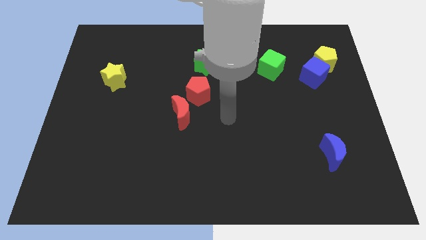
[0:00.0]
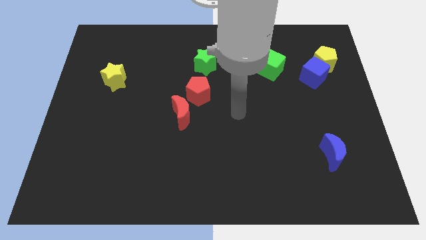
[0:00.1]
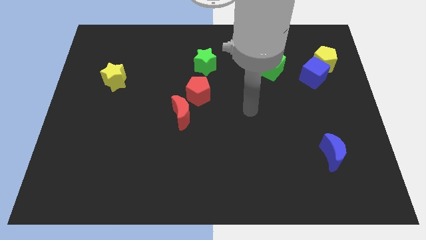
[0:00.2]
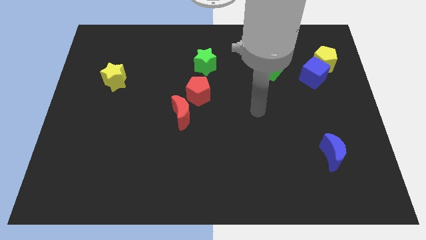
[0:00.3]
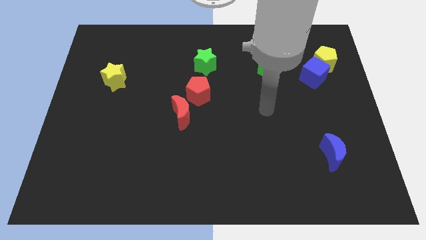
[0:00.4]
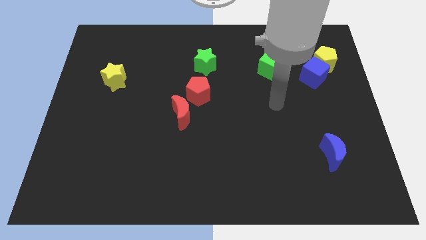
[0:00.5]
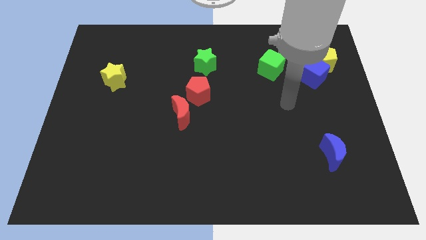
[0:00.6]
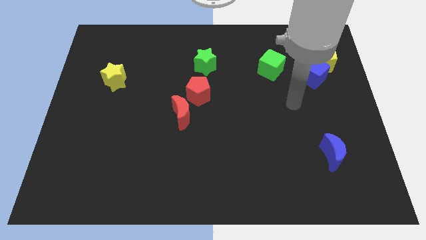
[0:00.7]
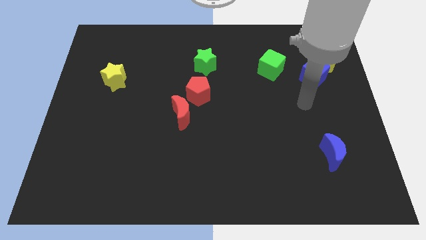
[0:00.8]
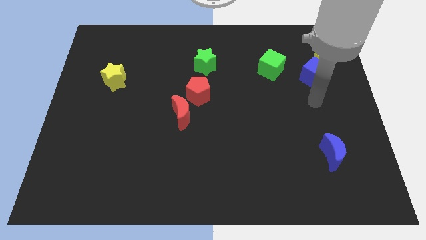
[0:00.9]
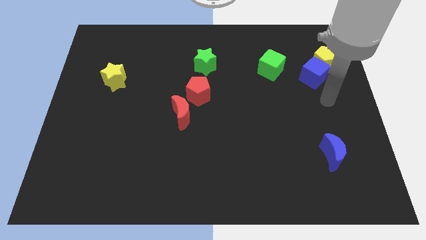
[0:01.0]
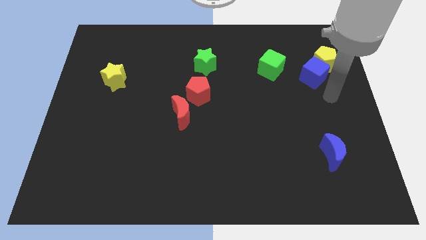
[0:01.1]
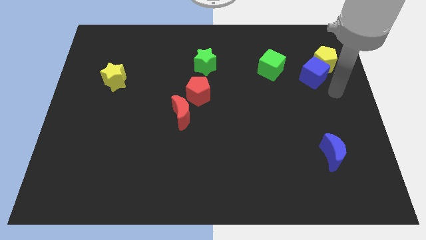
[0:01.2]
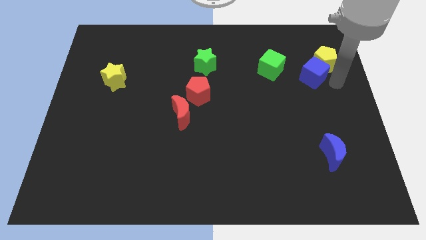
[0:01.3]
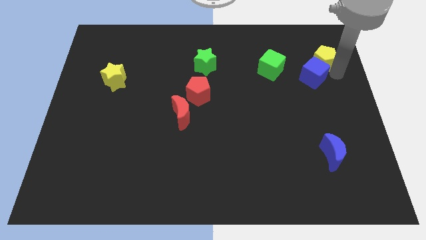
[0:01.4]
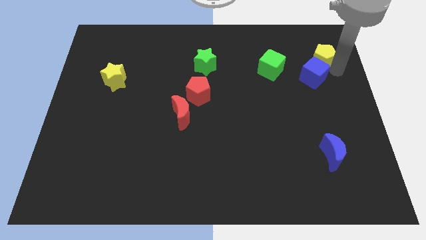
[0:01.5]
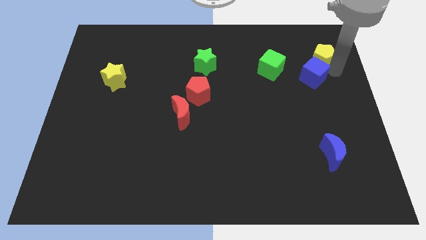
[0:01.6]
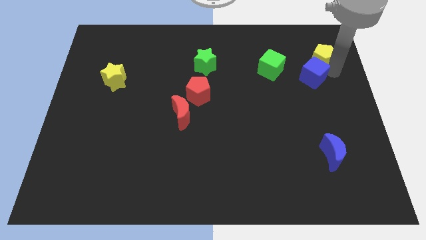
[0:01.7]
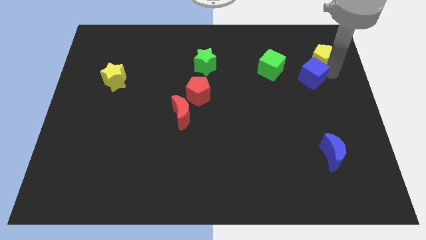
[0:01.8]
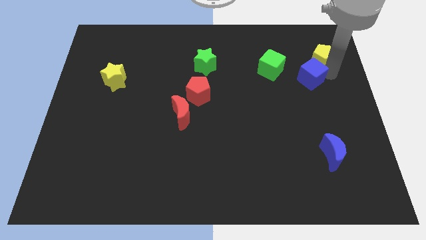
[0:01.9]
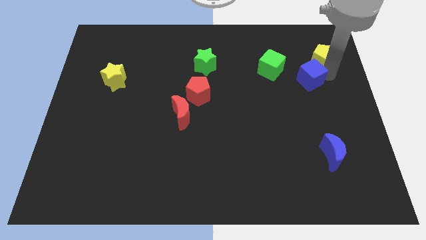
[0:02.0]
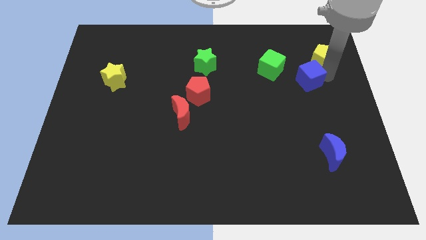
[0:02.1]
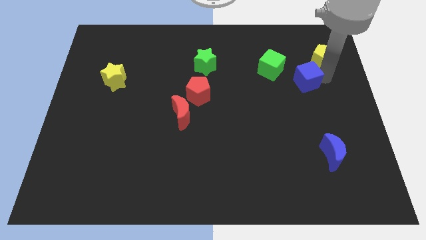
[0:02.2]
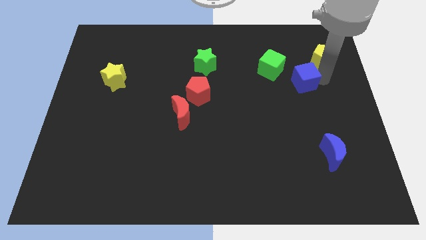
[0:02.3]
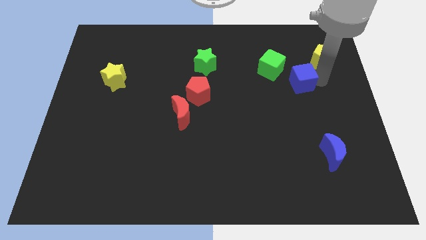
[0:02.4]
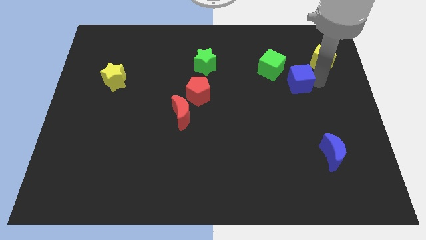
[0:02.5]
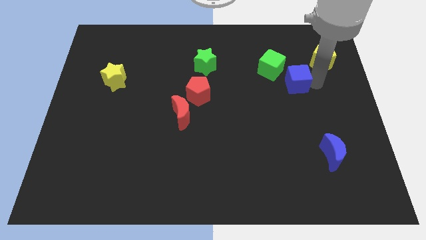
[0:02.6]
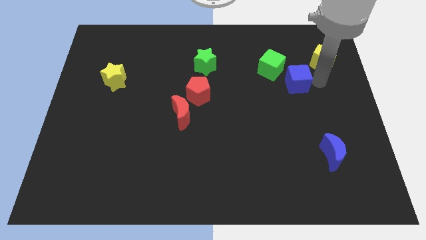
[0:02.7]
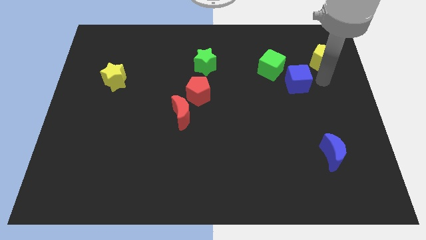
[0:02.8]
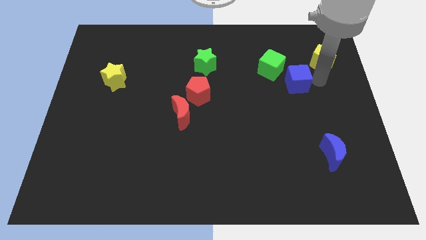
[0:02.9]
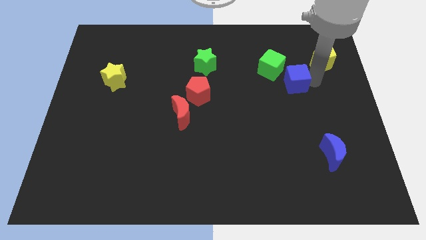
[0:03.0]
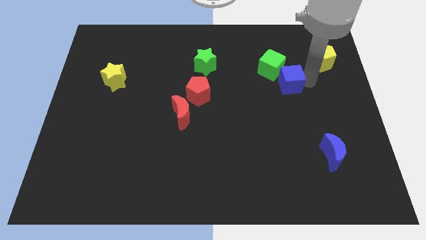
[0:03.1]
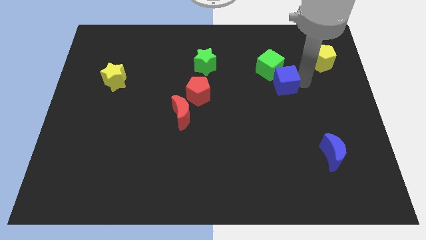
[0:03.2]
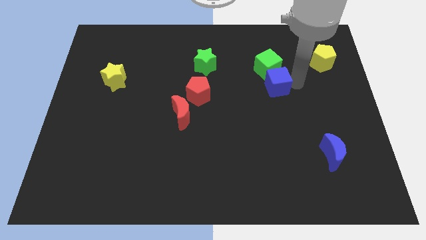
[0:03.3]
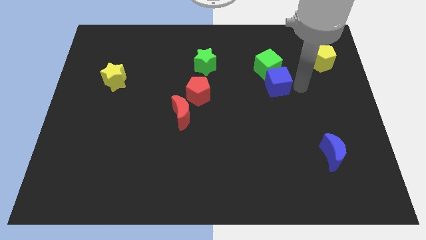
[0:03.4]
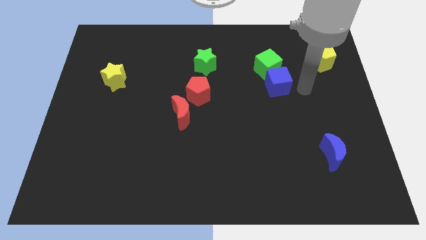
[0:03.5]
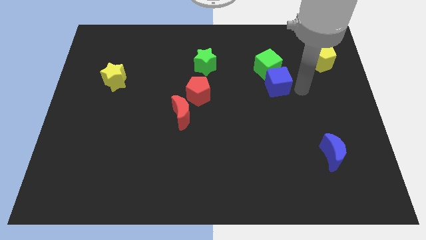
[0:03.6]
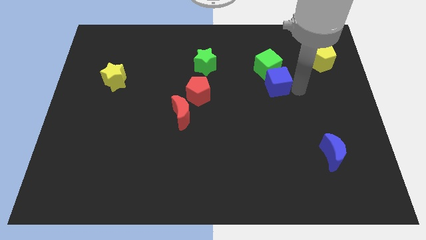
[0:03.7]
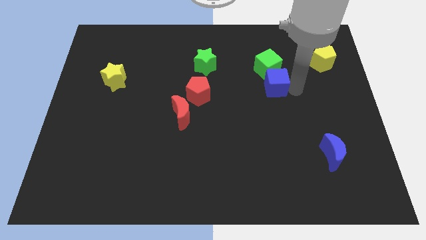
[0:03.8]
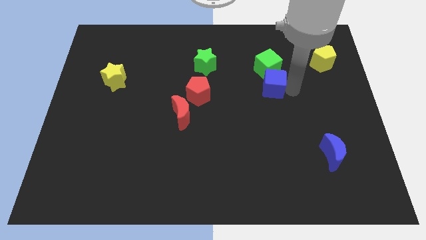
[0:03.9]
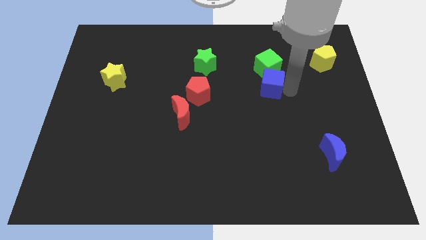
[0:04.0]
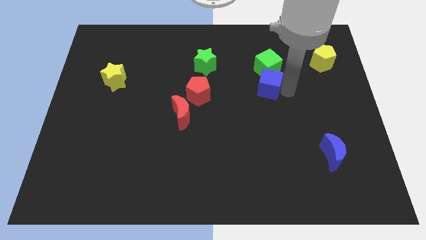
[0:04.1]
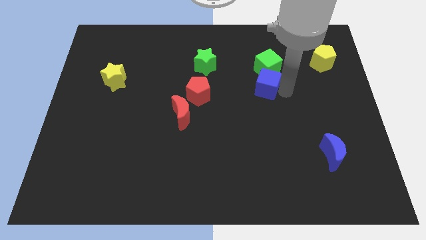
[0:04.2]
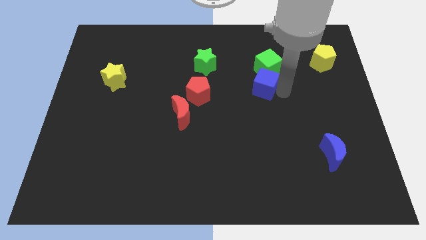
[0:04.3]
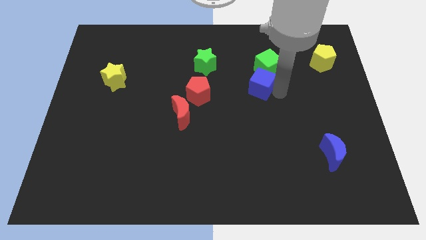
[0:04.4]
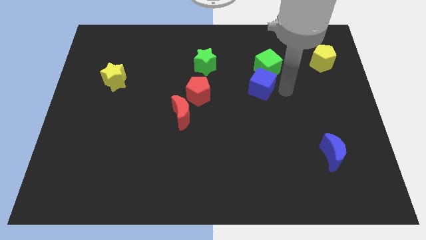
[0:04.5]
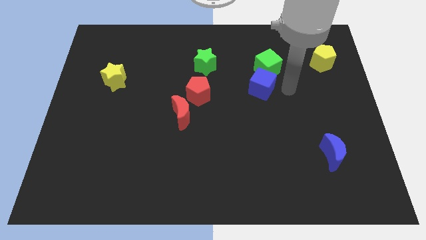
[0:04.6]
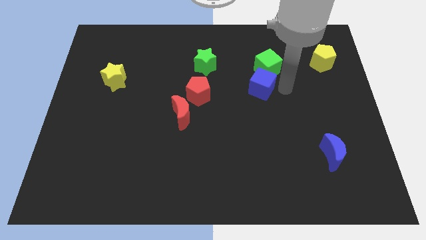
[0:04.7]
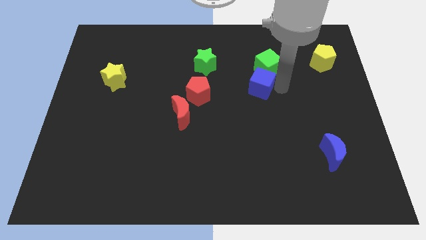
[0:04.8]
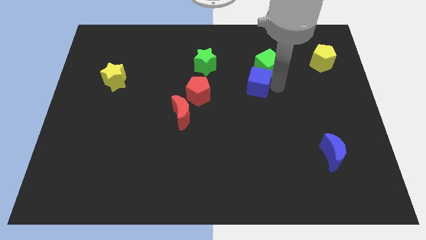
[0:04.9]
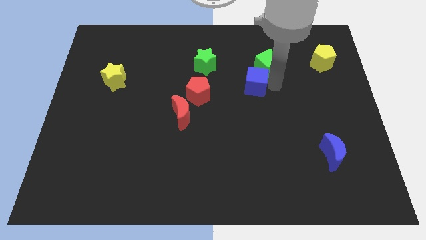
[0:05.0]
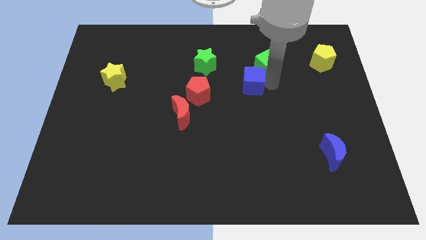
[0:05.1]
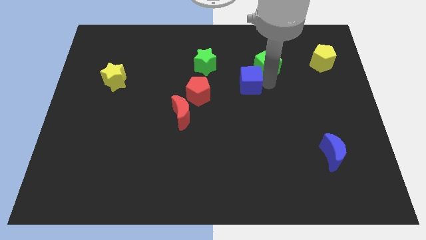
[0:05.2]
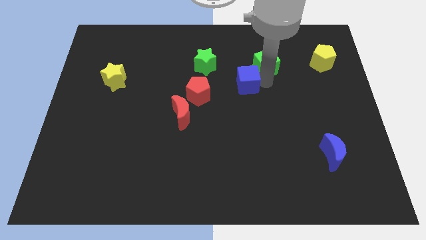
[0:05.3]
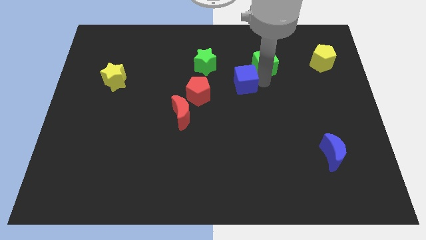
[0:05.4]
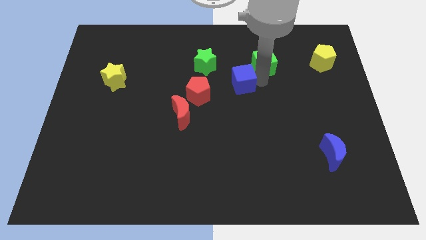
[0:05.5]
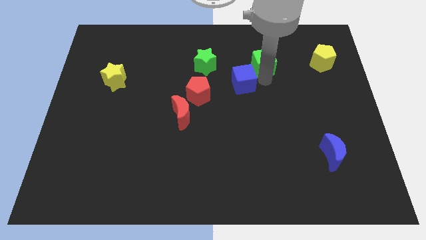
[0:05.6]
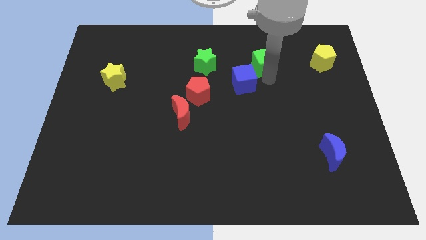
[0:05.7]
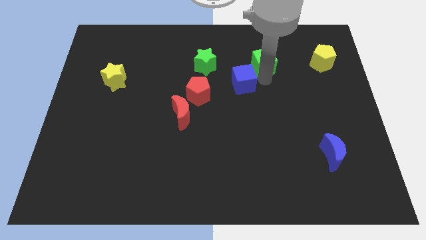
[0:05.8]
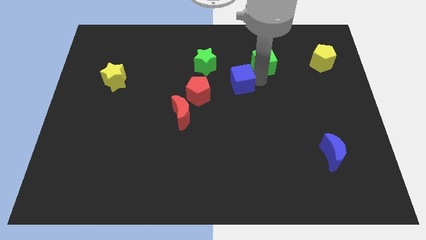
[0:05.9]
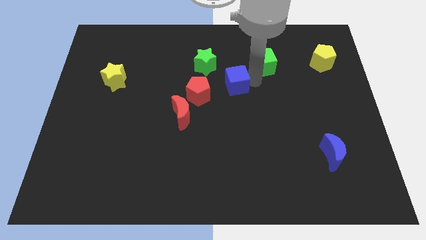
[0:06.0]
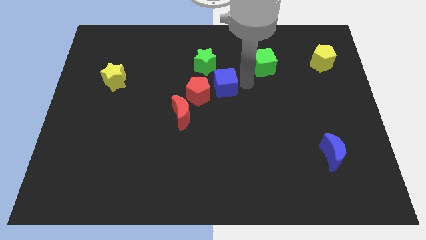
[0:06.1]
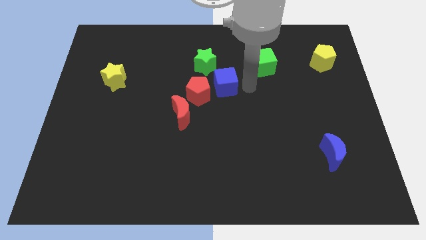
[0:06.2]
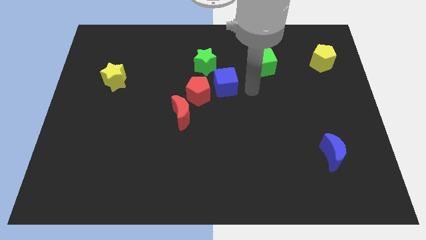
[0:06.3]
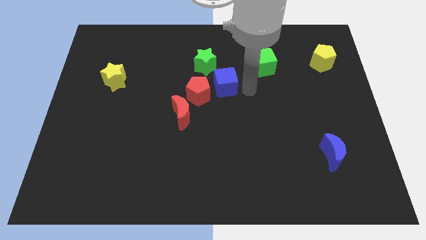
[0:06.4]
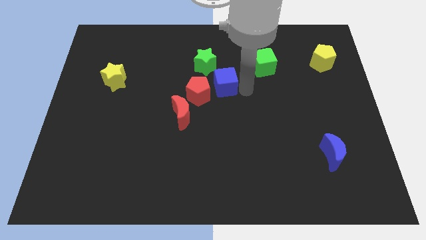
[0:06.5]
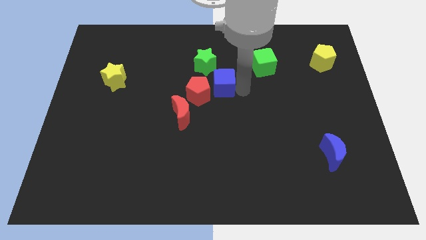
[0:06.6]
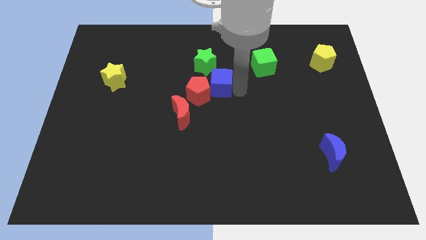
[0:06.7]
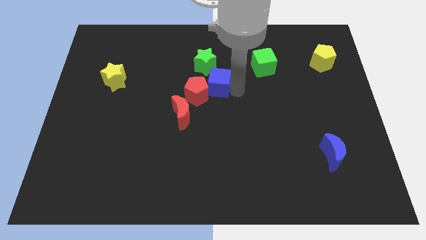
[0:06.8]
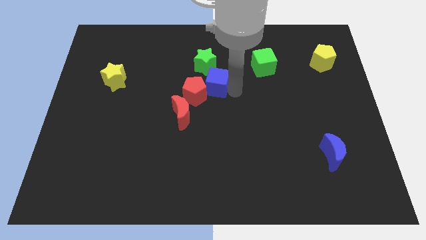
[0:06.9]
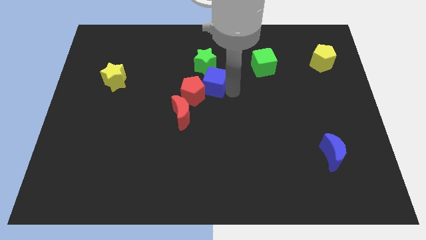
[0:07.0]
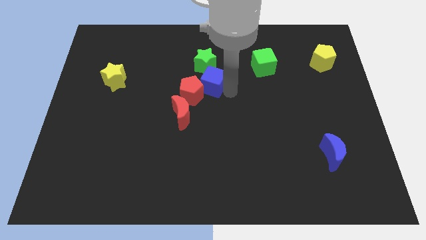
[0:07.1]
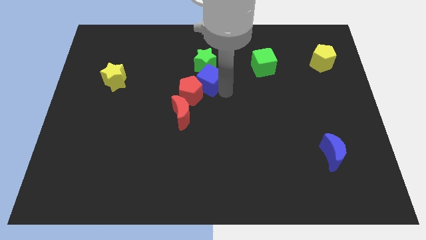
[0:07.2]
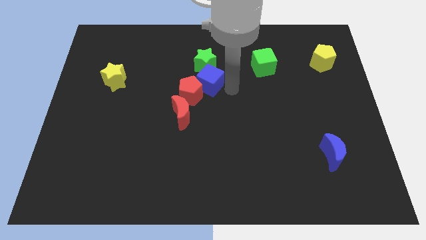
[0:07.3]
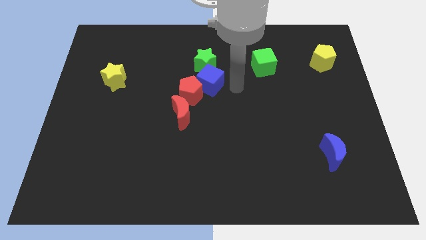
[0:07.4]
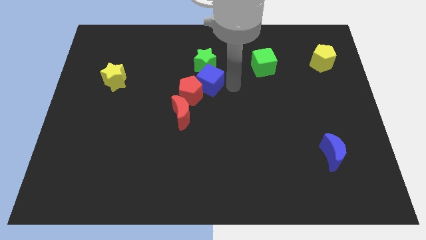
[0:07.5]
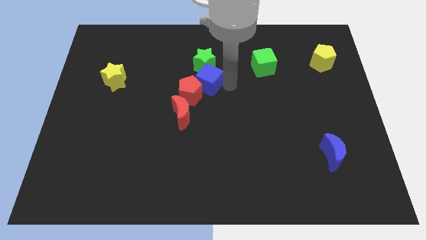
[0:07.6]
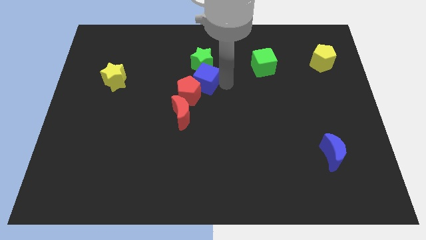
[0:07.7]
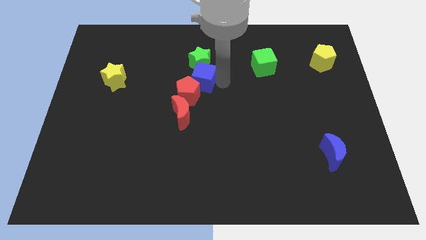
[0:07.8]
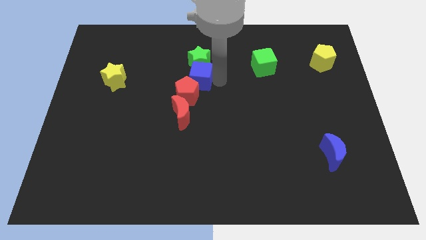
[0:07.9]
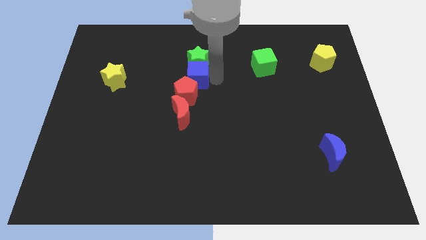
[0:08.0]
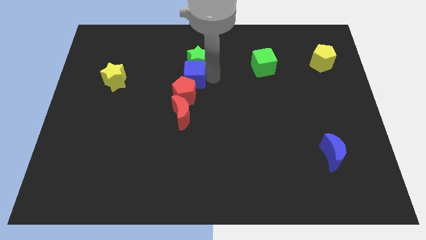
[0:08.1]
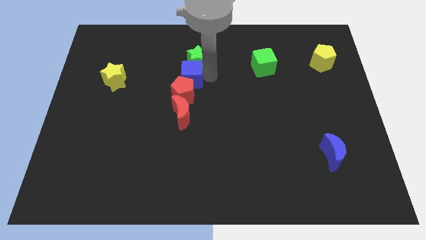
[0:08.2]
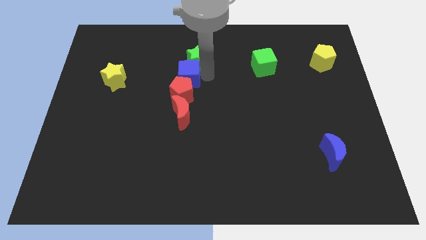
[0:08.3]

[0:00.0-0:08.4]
slide the blue cube to the top left side of the red pentagon
